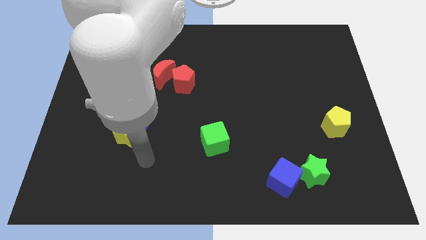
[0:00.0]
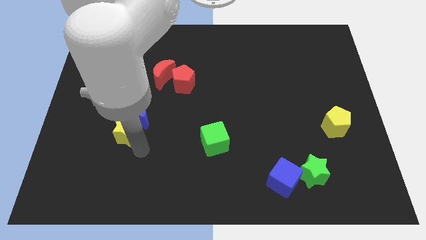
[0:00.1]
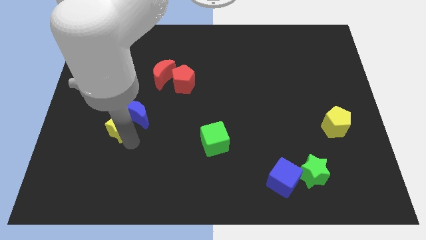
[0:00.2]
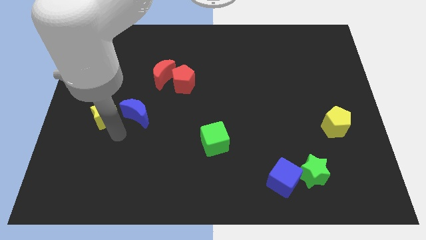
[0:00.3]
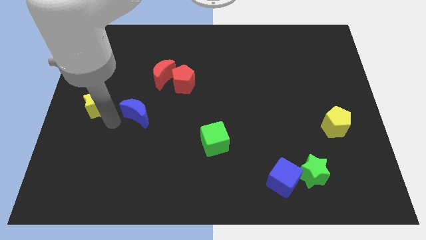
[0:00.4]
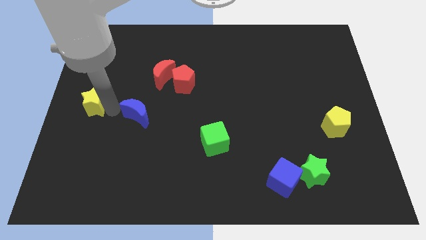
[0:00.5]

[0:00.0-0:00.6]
pull the blue moon apart from the yellow star

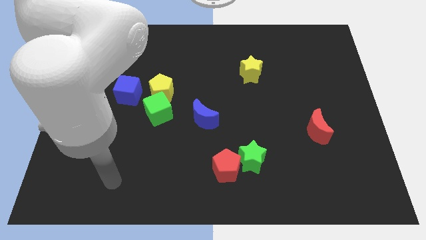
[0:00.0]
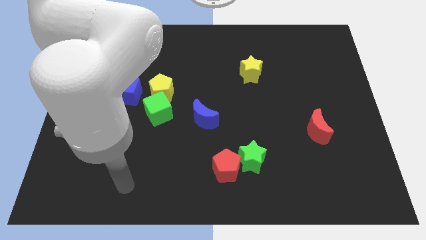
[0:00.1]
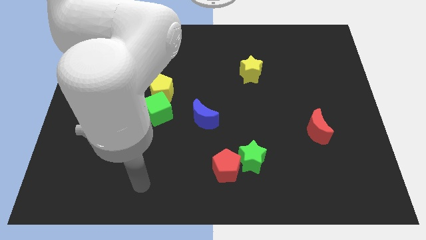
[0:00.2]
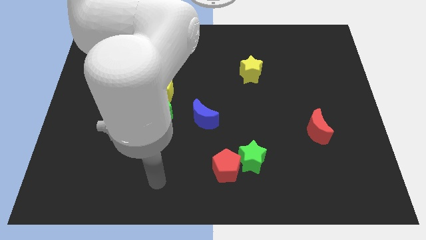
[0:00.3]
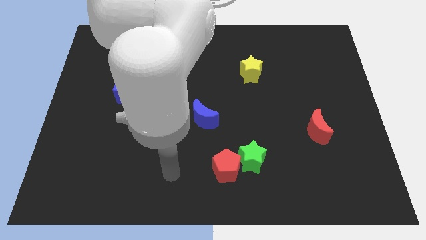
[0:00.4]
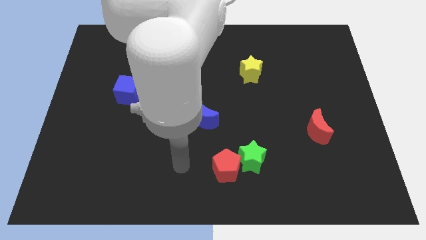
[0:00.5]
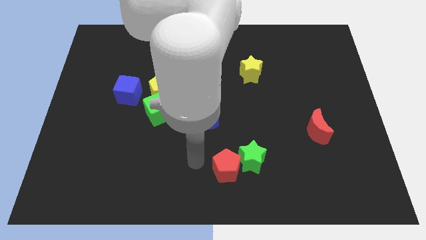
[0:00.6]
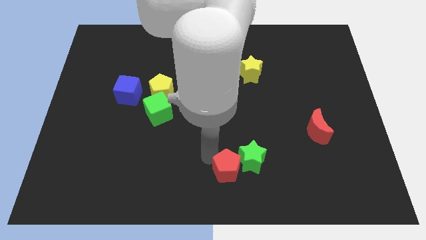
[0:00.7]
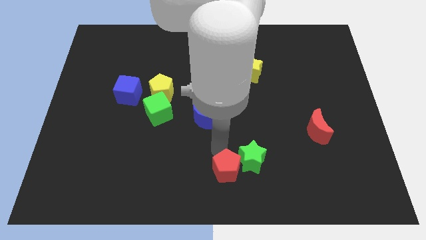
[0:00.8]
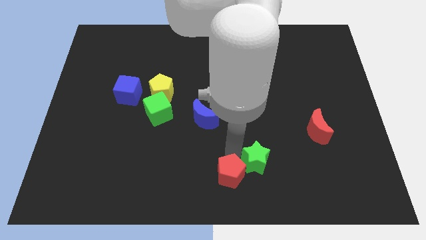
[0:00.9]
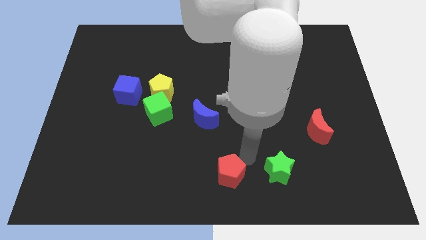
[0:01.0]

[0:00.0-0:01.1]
separate the red pentagon from the green star

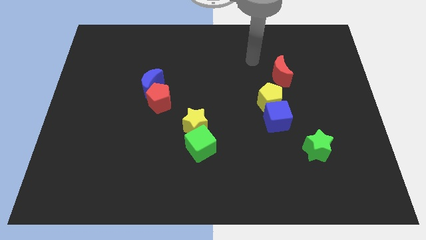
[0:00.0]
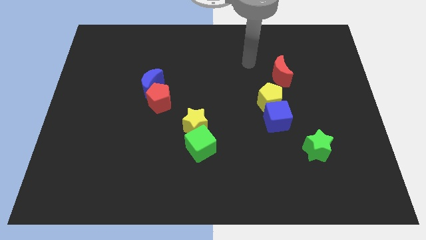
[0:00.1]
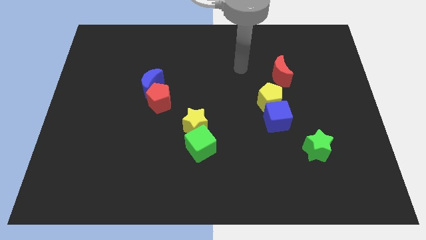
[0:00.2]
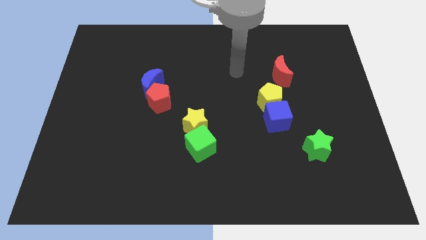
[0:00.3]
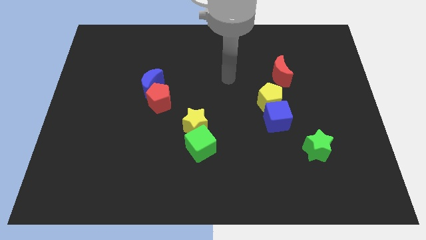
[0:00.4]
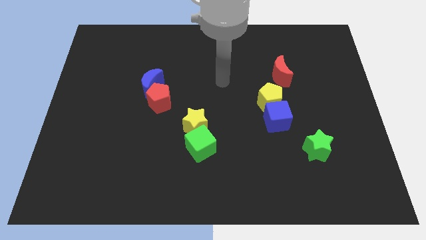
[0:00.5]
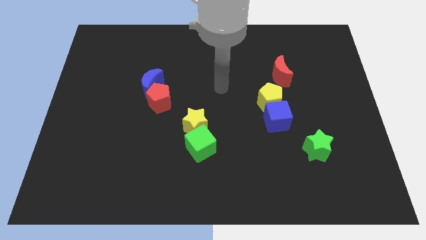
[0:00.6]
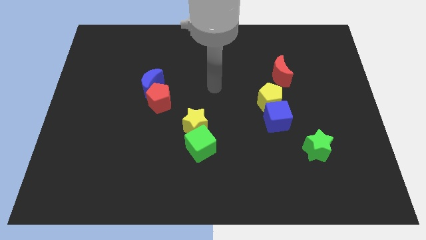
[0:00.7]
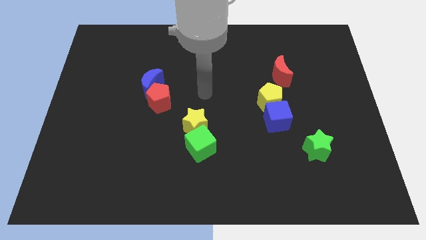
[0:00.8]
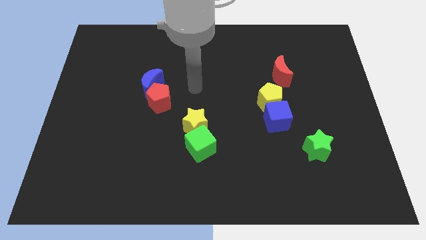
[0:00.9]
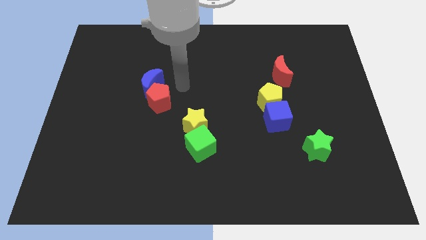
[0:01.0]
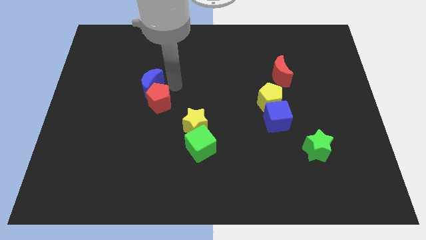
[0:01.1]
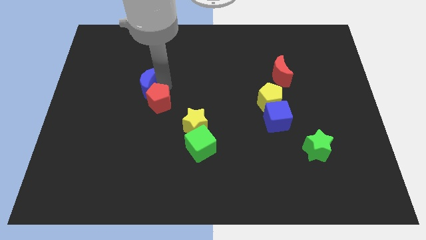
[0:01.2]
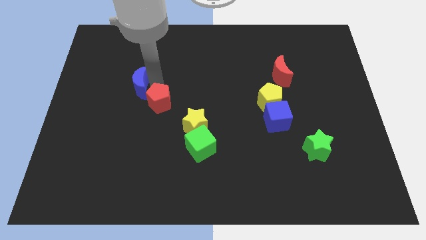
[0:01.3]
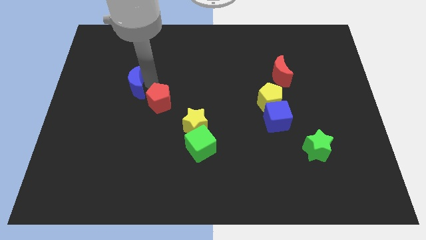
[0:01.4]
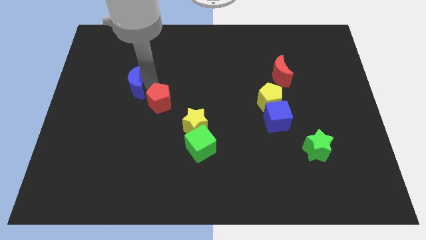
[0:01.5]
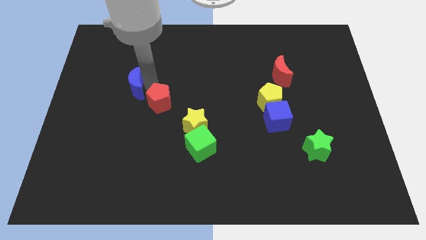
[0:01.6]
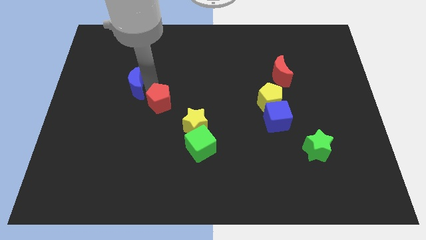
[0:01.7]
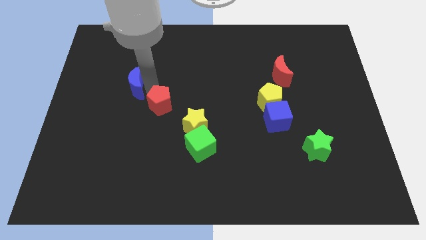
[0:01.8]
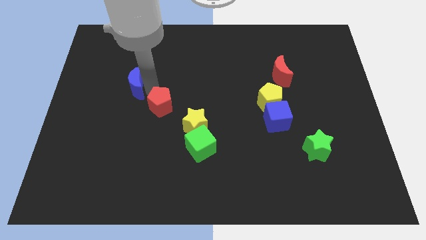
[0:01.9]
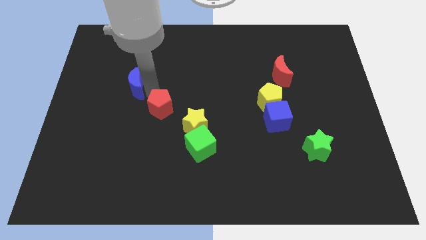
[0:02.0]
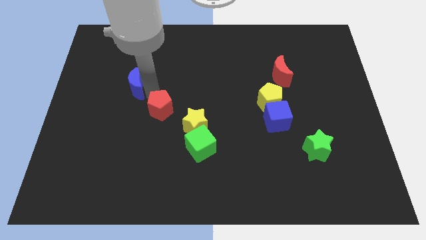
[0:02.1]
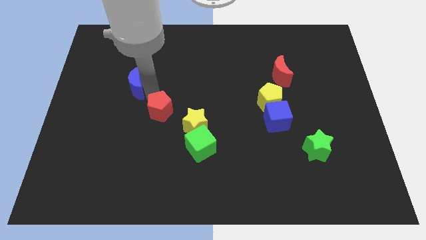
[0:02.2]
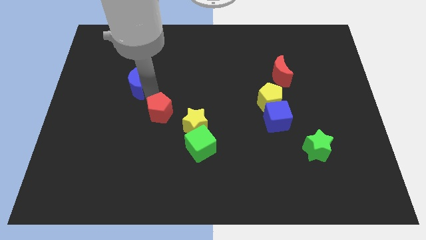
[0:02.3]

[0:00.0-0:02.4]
pull the red pentagon apart from the blue moon

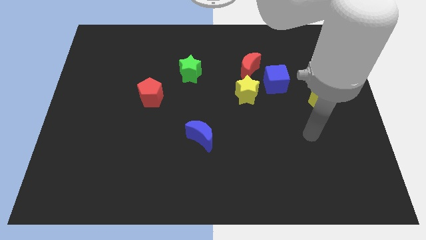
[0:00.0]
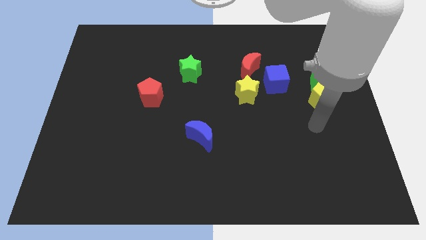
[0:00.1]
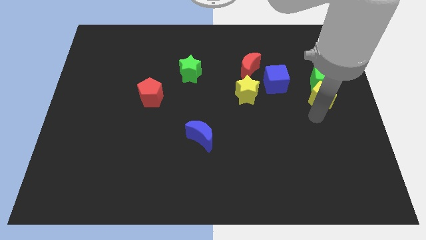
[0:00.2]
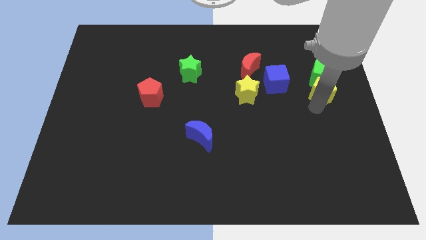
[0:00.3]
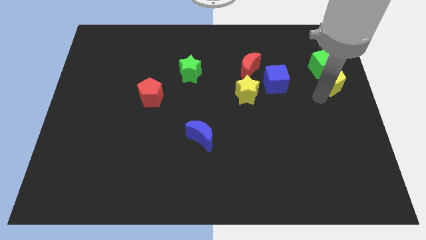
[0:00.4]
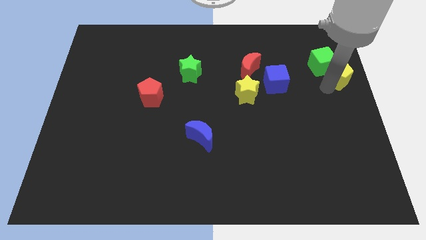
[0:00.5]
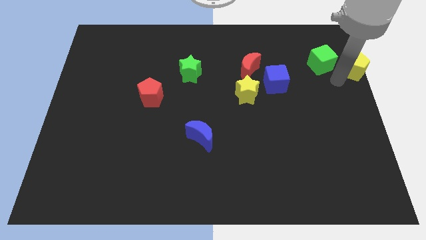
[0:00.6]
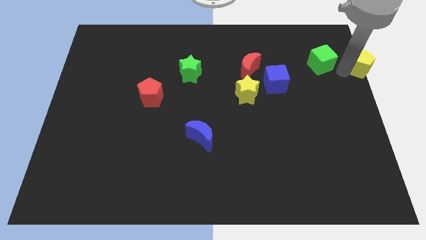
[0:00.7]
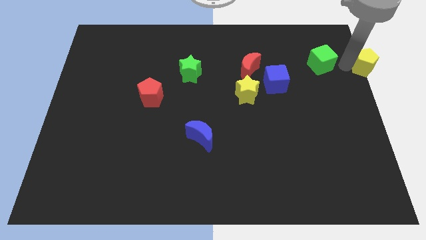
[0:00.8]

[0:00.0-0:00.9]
move the green cube away from the yellow pentagon

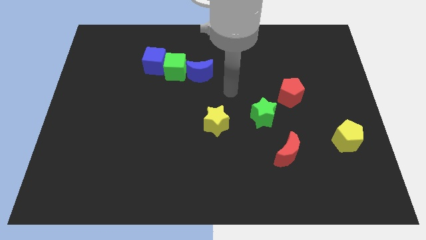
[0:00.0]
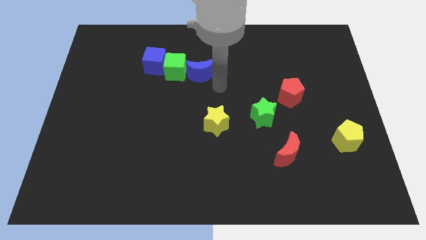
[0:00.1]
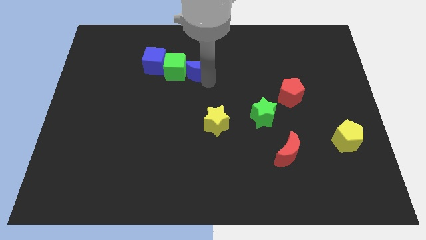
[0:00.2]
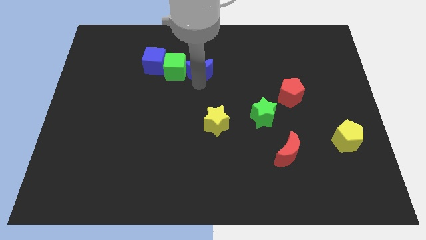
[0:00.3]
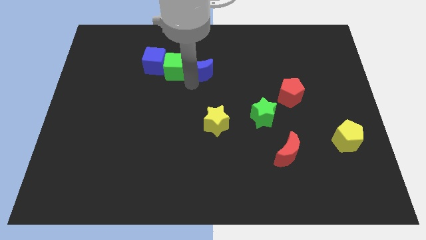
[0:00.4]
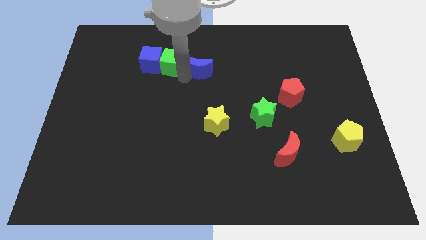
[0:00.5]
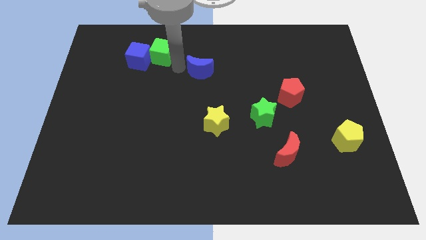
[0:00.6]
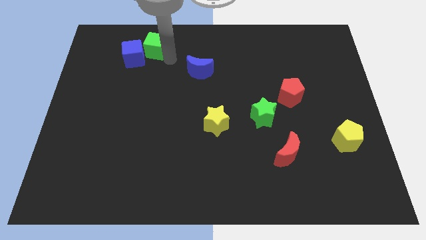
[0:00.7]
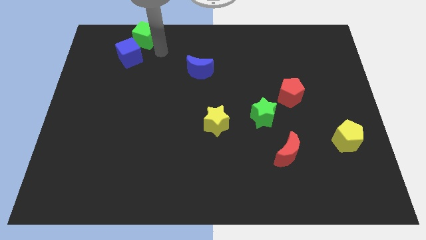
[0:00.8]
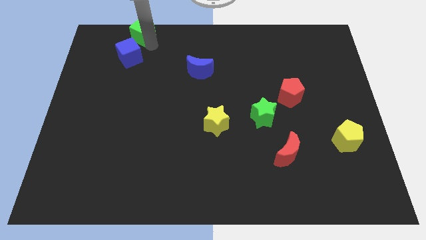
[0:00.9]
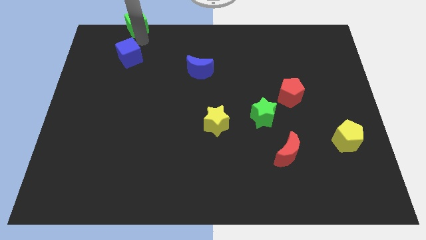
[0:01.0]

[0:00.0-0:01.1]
move the blue cube away from the green cube

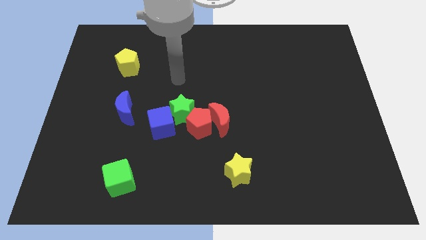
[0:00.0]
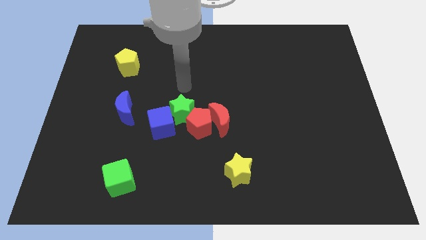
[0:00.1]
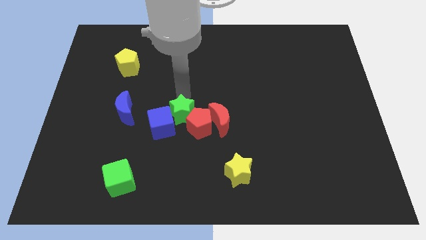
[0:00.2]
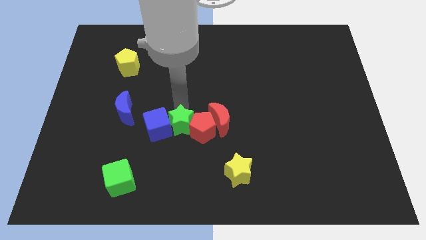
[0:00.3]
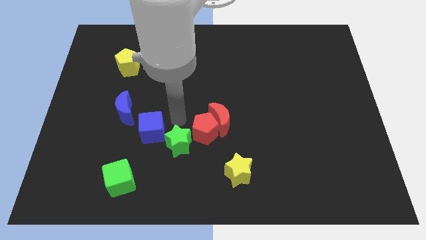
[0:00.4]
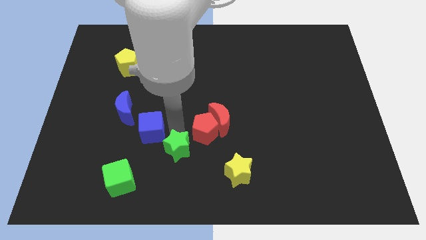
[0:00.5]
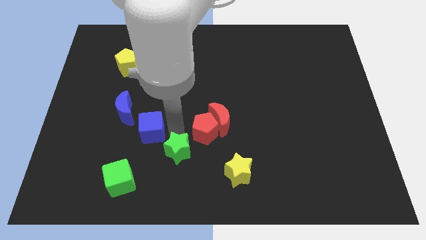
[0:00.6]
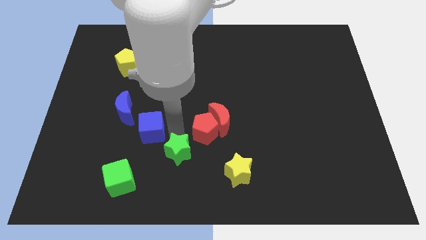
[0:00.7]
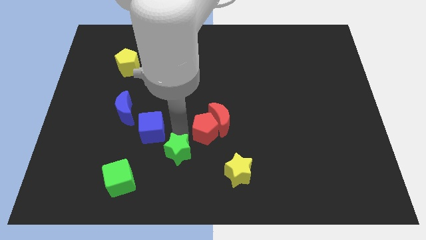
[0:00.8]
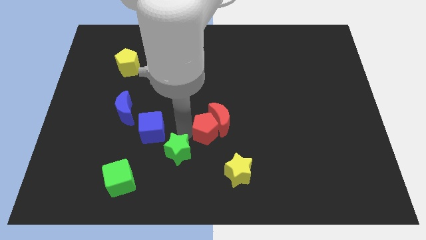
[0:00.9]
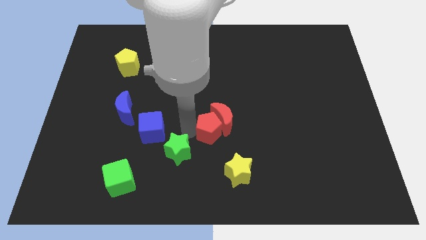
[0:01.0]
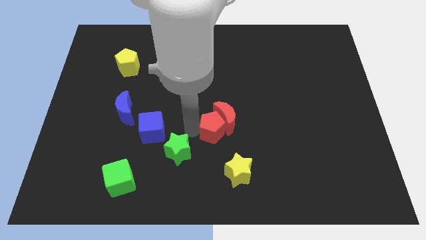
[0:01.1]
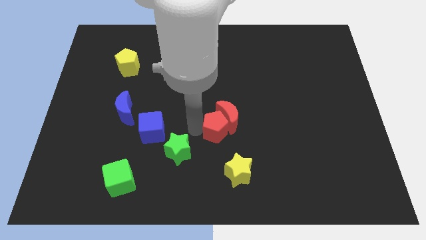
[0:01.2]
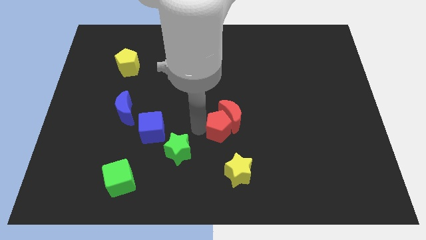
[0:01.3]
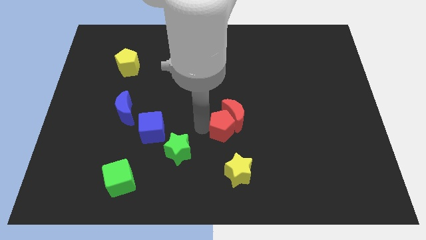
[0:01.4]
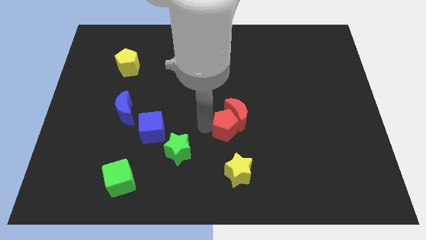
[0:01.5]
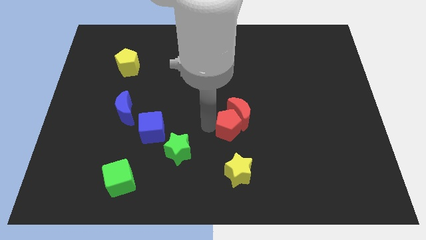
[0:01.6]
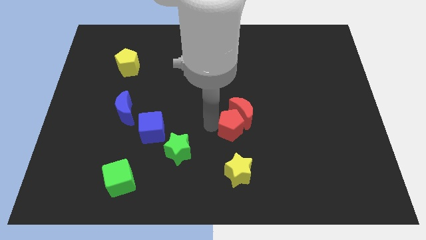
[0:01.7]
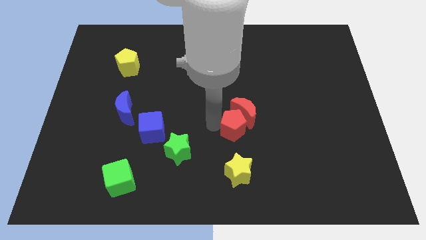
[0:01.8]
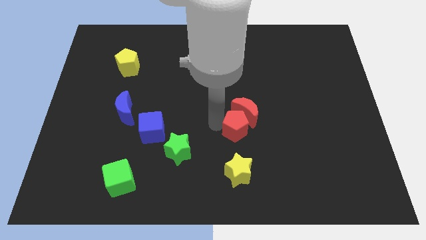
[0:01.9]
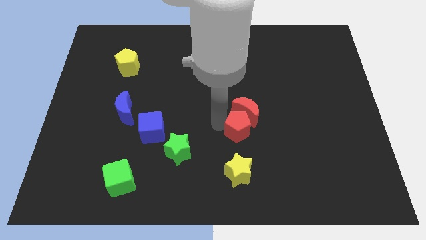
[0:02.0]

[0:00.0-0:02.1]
separate the red pentagon from the red moon, green star, and blue cube

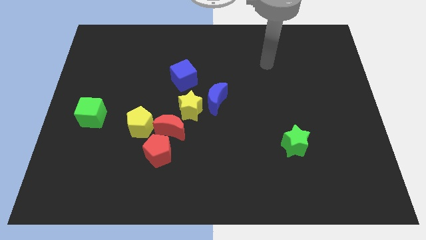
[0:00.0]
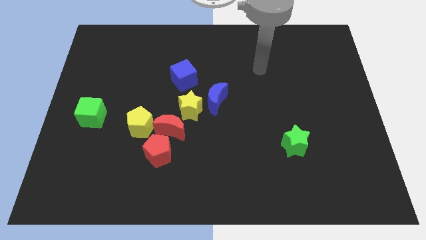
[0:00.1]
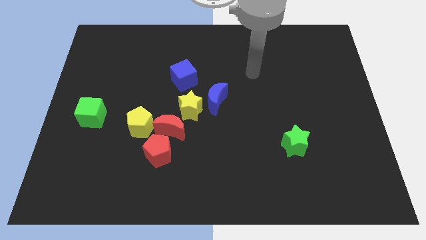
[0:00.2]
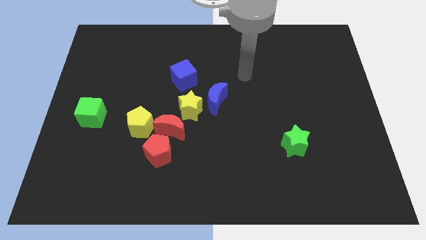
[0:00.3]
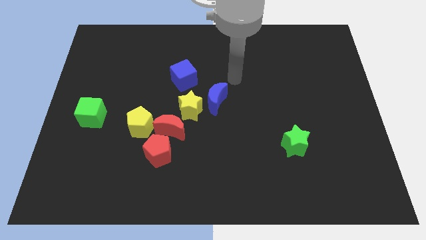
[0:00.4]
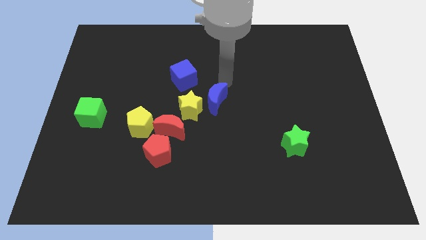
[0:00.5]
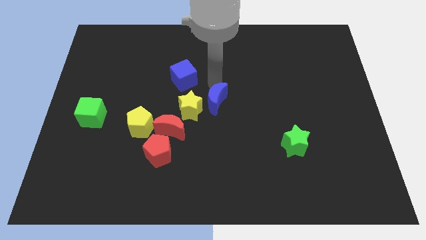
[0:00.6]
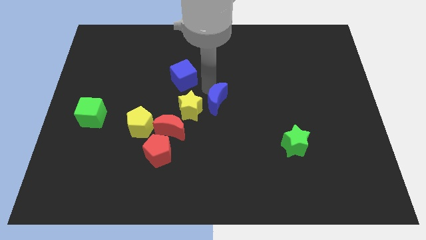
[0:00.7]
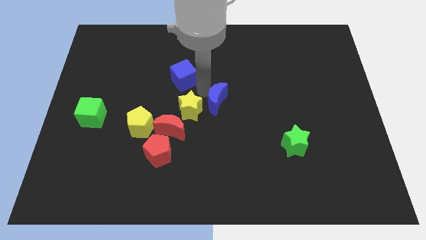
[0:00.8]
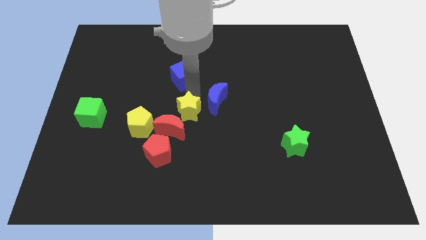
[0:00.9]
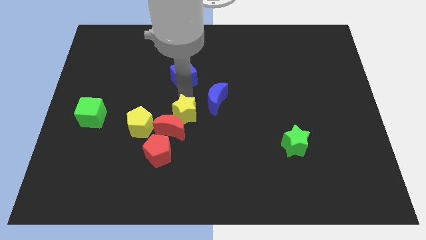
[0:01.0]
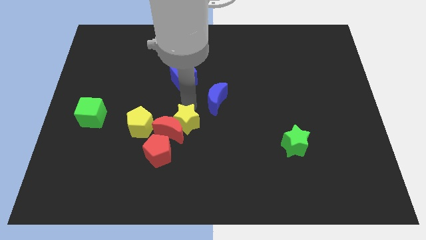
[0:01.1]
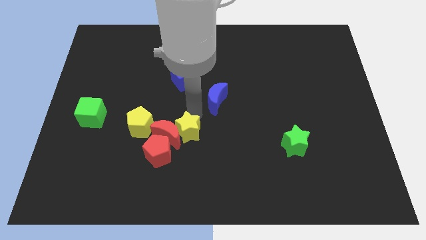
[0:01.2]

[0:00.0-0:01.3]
separate the blue moon from the yellow star
